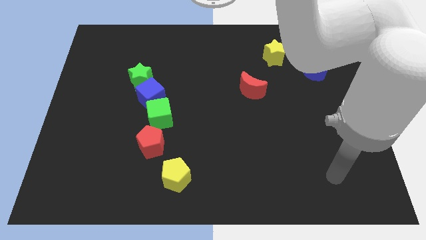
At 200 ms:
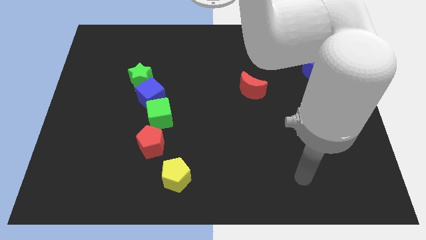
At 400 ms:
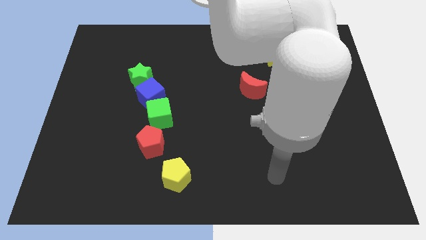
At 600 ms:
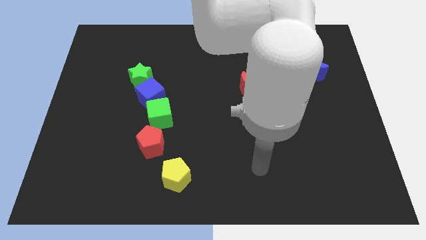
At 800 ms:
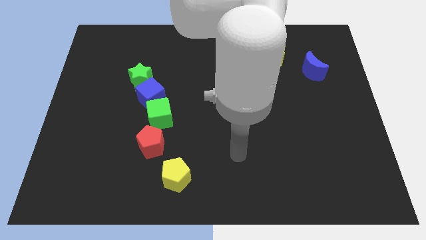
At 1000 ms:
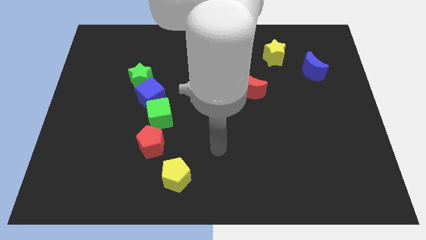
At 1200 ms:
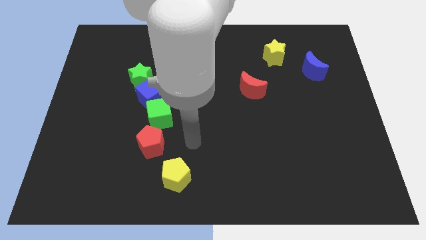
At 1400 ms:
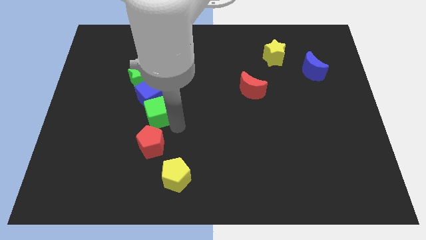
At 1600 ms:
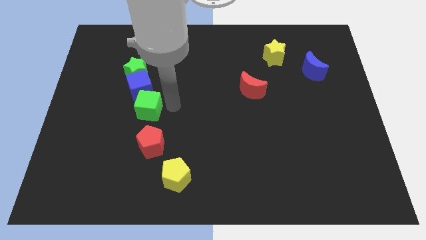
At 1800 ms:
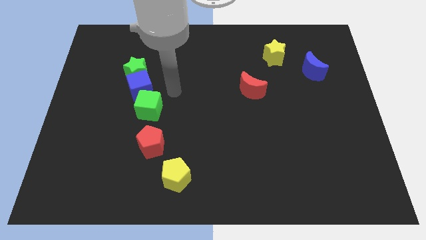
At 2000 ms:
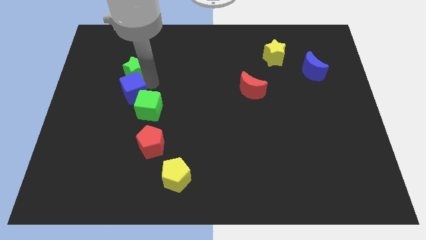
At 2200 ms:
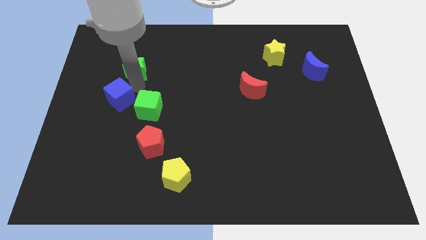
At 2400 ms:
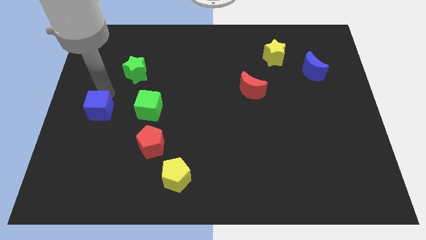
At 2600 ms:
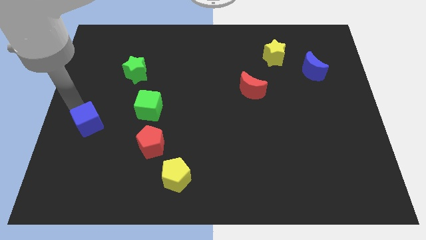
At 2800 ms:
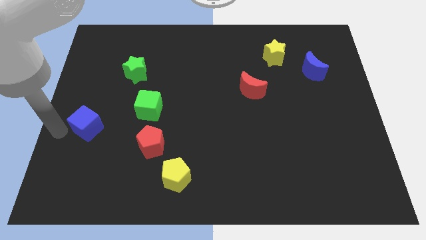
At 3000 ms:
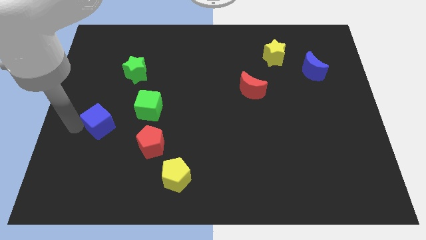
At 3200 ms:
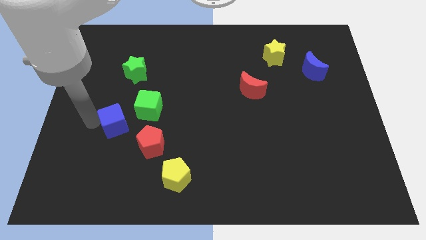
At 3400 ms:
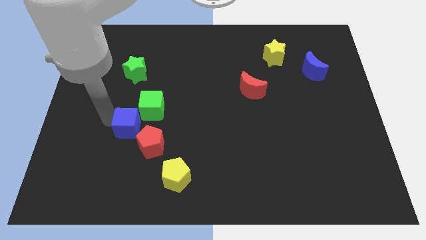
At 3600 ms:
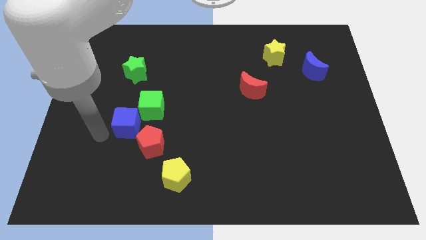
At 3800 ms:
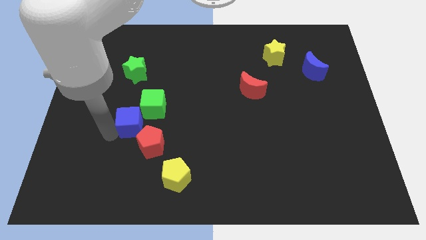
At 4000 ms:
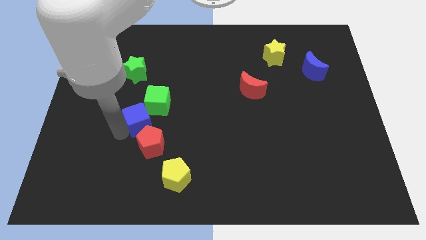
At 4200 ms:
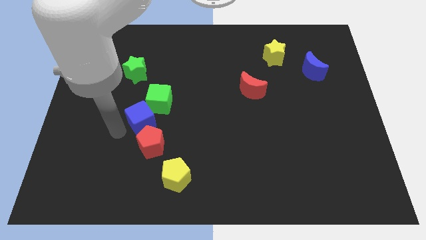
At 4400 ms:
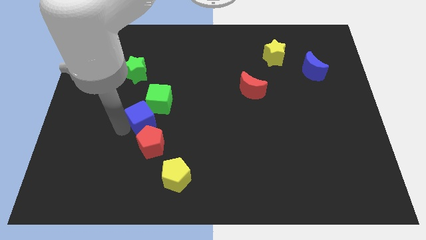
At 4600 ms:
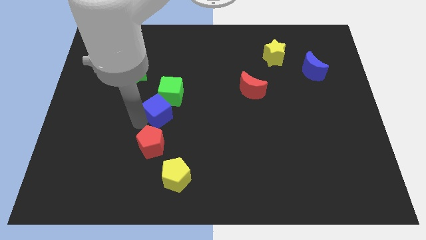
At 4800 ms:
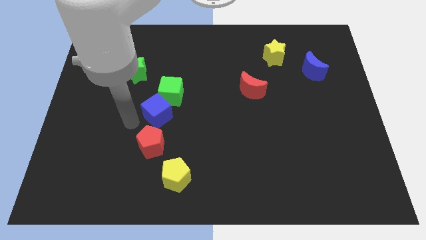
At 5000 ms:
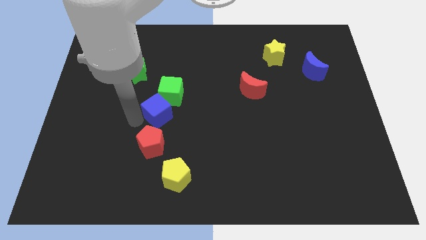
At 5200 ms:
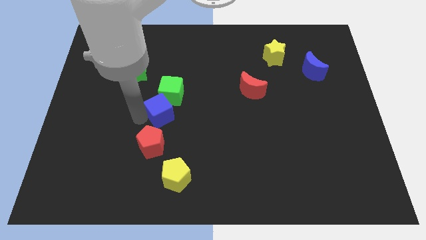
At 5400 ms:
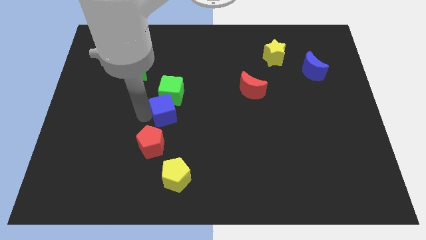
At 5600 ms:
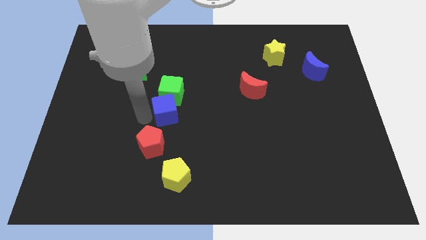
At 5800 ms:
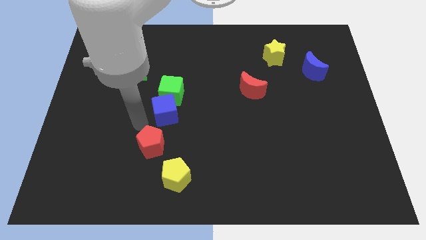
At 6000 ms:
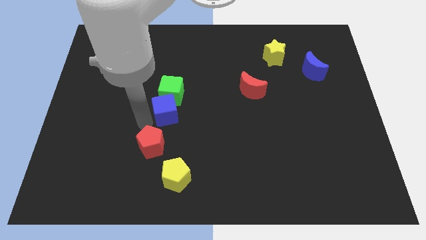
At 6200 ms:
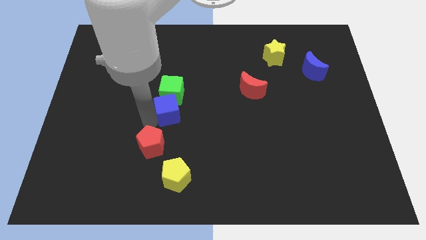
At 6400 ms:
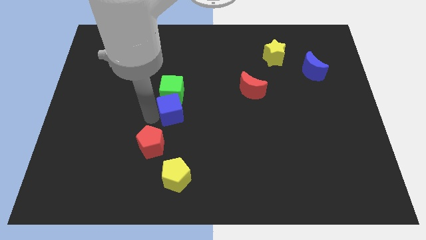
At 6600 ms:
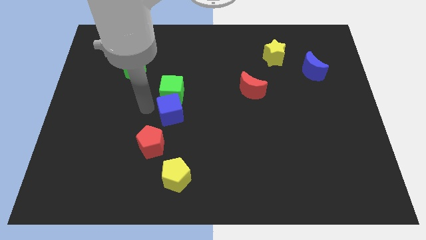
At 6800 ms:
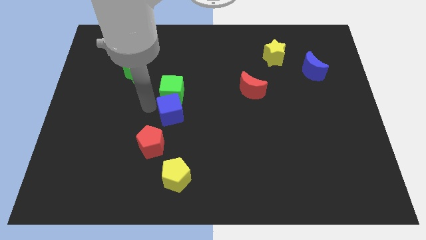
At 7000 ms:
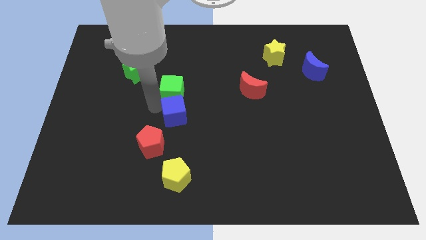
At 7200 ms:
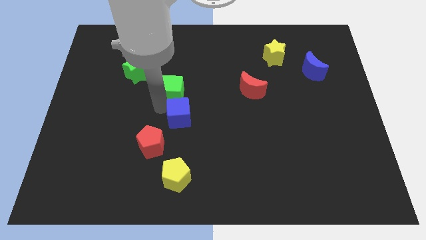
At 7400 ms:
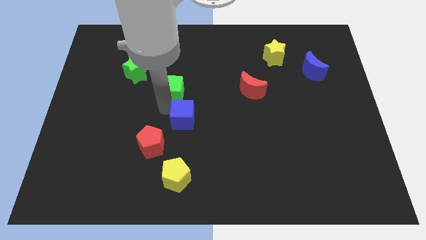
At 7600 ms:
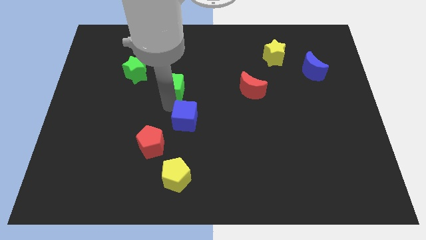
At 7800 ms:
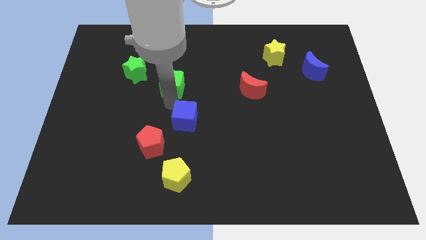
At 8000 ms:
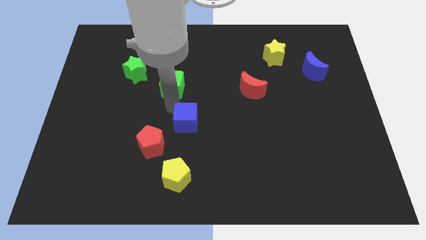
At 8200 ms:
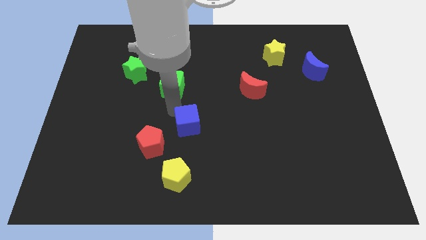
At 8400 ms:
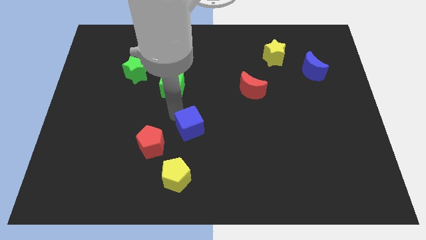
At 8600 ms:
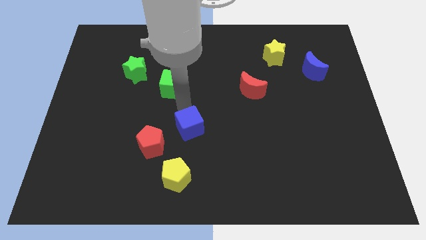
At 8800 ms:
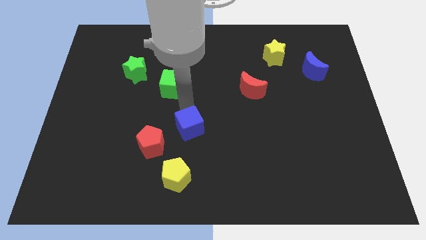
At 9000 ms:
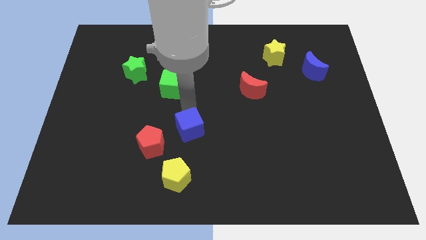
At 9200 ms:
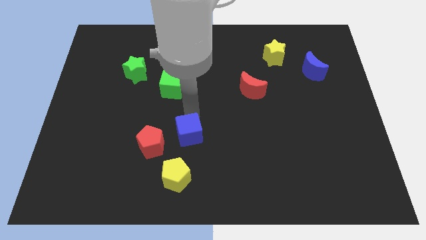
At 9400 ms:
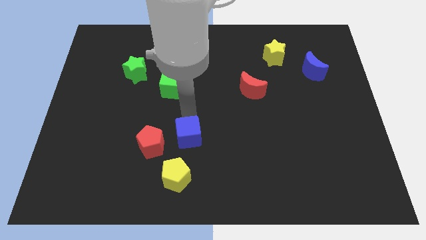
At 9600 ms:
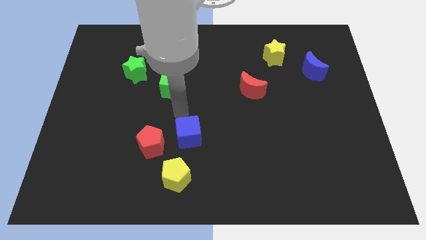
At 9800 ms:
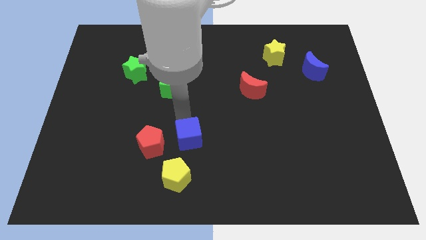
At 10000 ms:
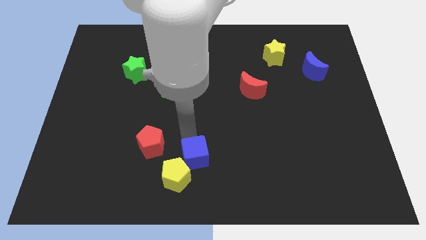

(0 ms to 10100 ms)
push the blue cube to the bottom side

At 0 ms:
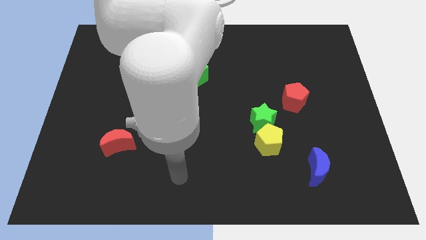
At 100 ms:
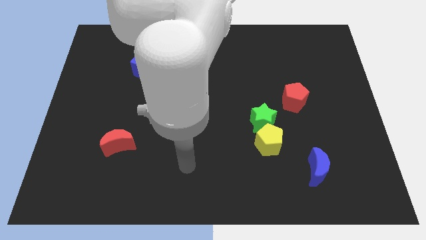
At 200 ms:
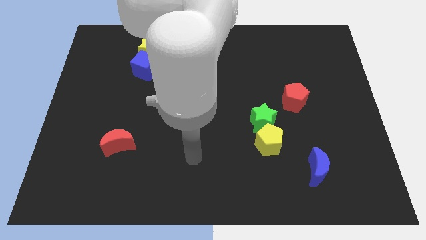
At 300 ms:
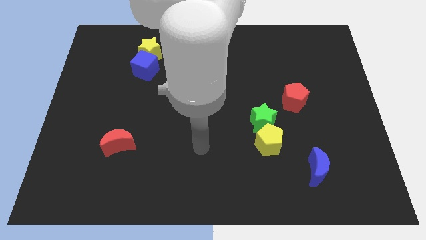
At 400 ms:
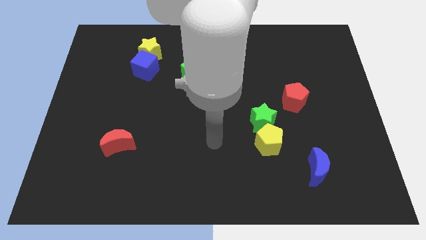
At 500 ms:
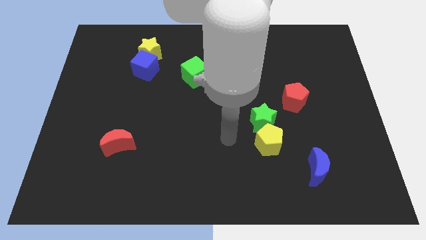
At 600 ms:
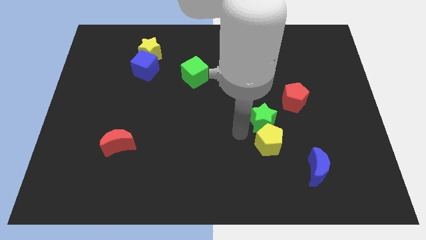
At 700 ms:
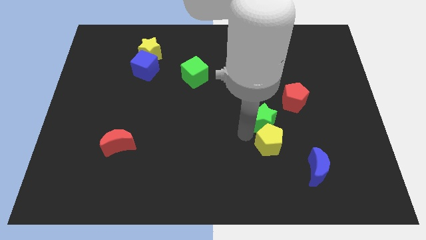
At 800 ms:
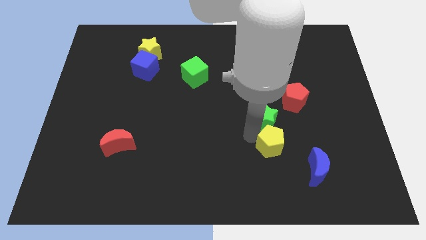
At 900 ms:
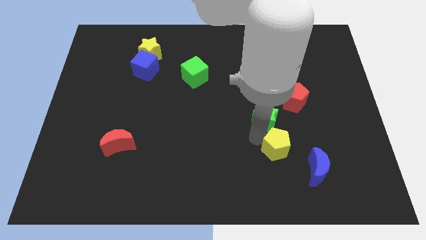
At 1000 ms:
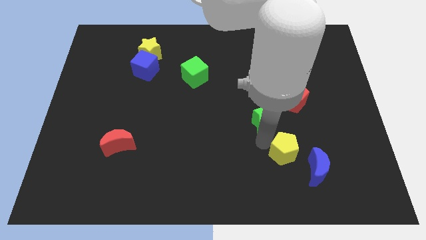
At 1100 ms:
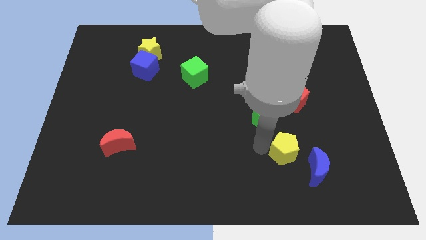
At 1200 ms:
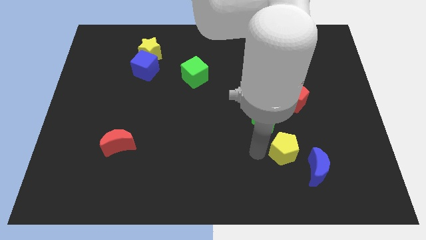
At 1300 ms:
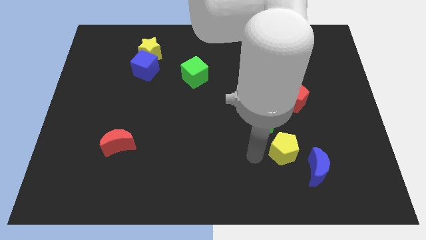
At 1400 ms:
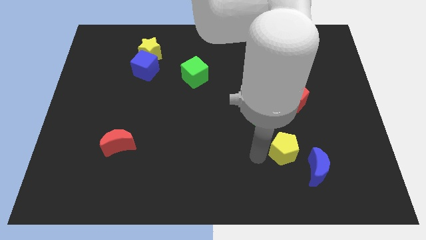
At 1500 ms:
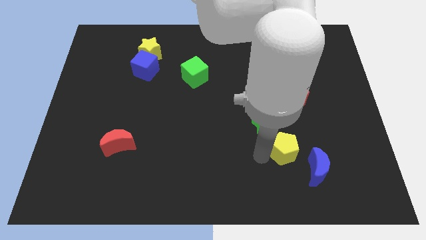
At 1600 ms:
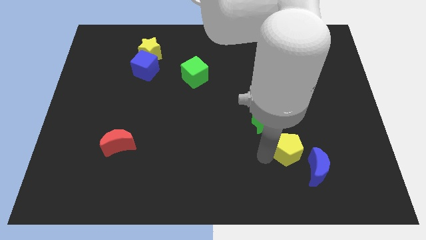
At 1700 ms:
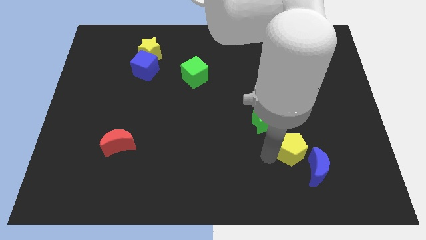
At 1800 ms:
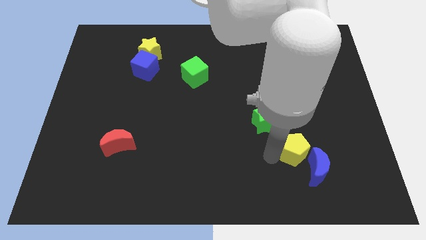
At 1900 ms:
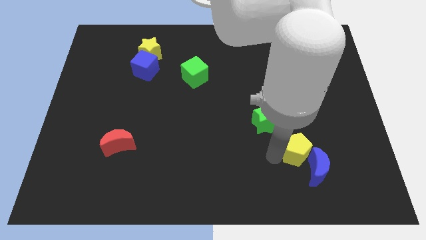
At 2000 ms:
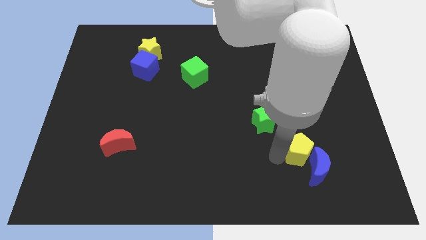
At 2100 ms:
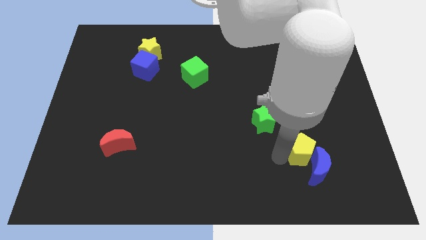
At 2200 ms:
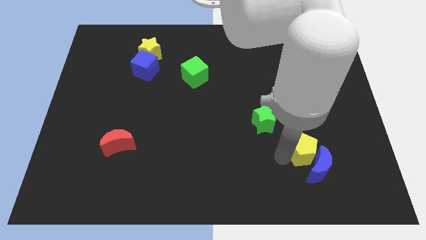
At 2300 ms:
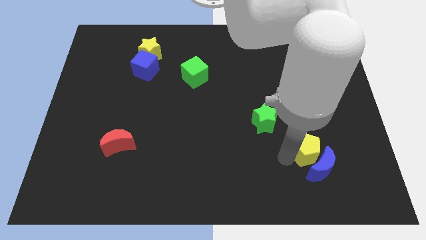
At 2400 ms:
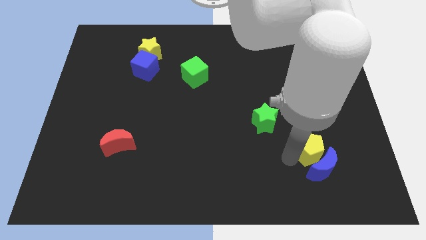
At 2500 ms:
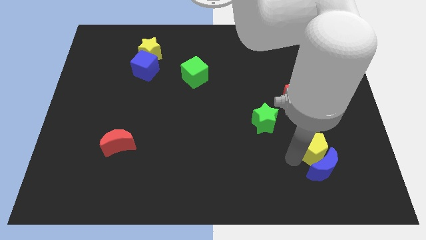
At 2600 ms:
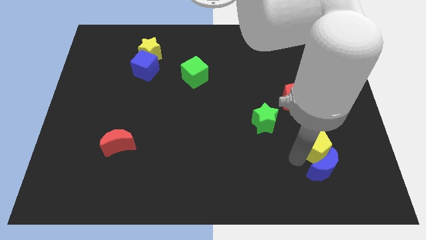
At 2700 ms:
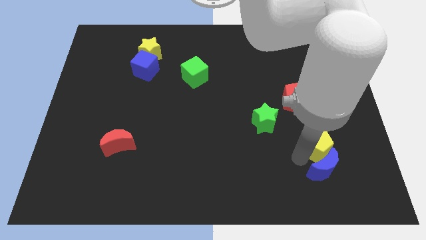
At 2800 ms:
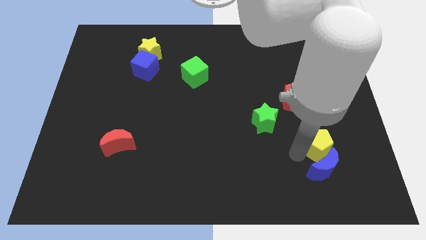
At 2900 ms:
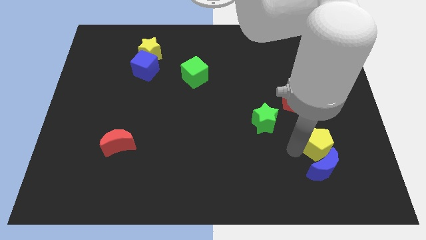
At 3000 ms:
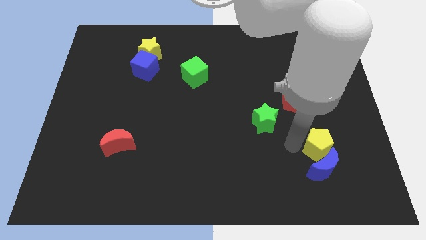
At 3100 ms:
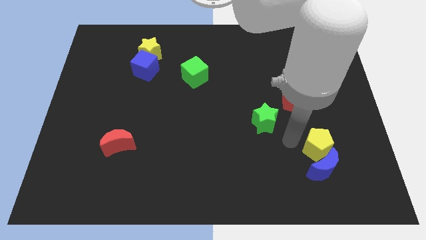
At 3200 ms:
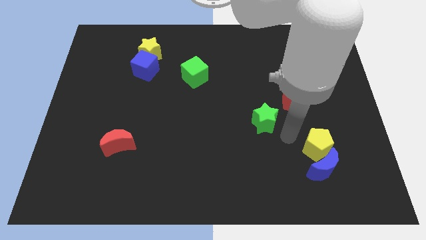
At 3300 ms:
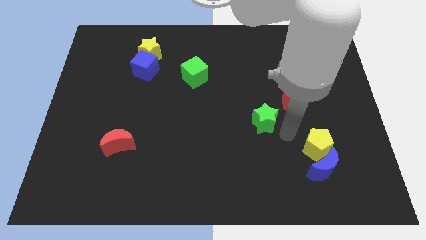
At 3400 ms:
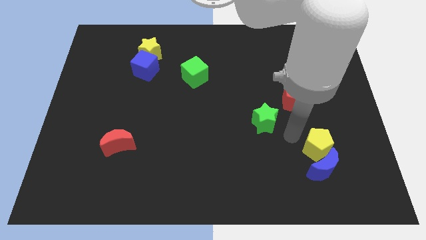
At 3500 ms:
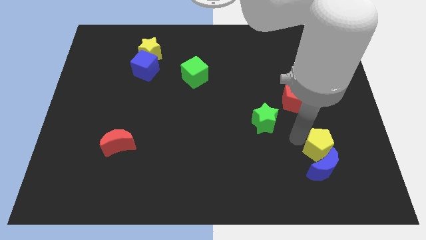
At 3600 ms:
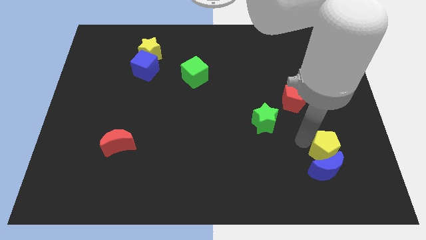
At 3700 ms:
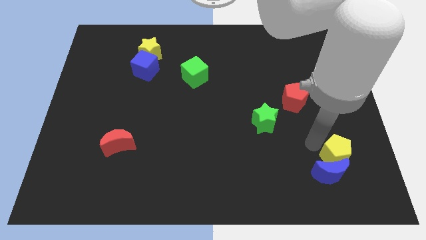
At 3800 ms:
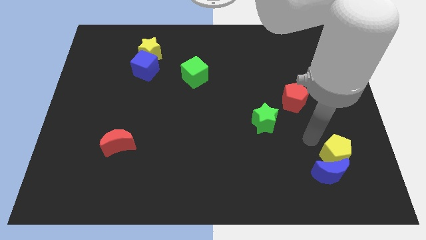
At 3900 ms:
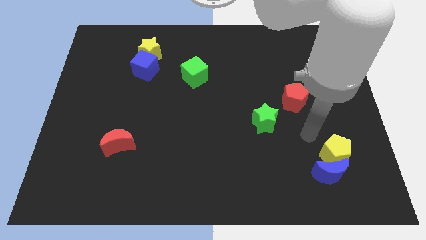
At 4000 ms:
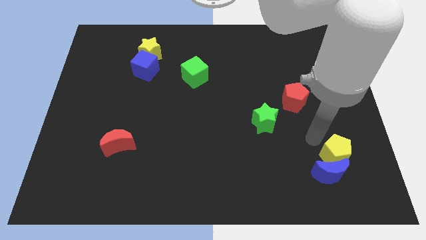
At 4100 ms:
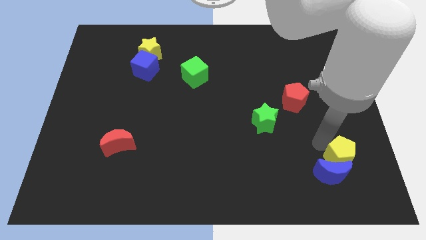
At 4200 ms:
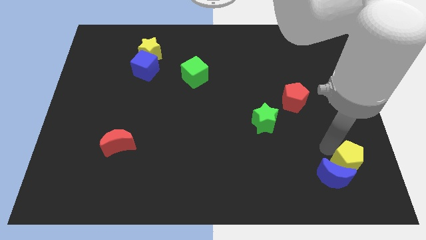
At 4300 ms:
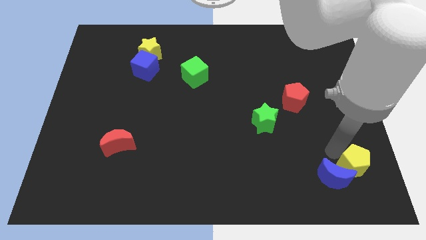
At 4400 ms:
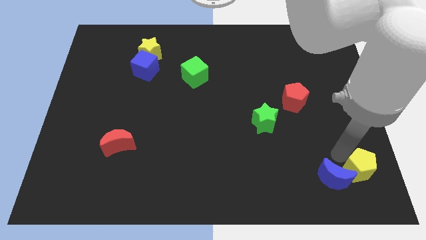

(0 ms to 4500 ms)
slide the yellow pentagon to the bottom right
